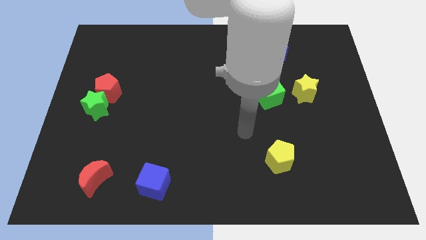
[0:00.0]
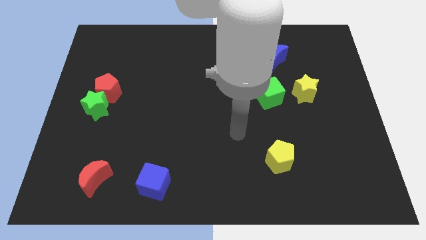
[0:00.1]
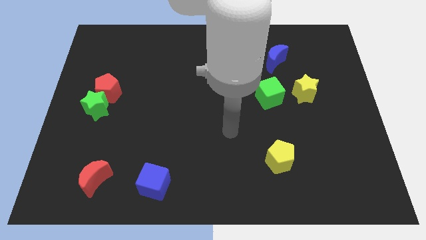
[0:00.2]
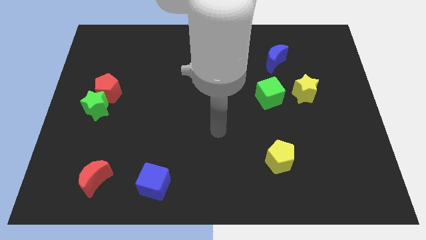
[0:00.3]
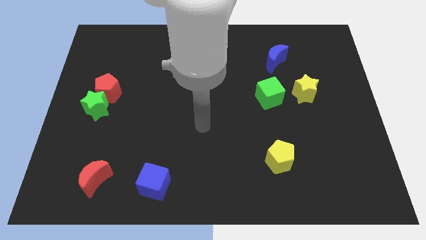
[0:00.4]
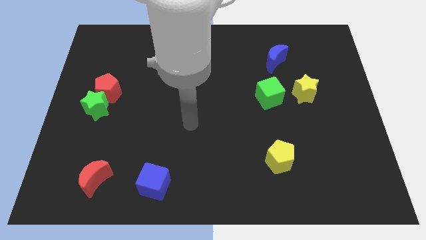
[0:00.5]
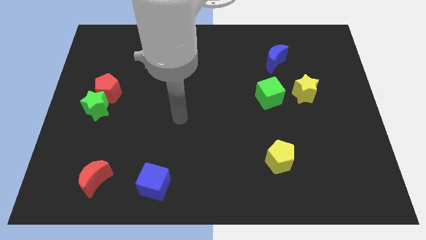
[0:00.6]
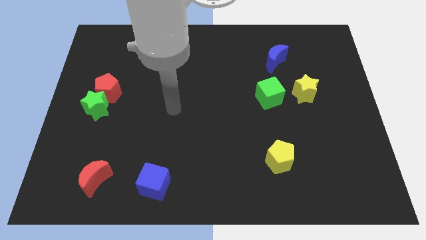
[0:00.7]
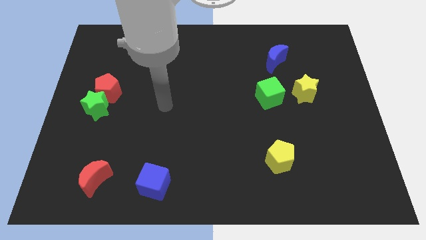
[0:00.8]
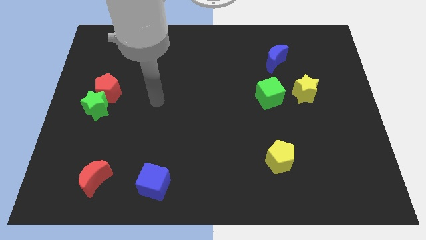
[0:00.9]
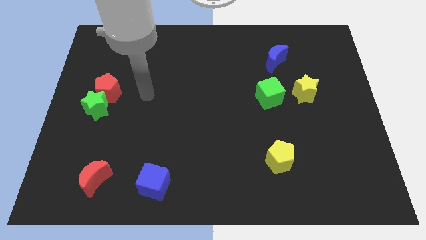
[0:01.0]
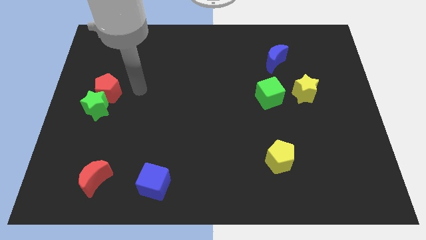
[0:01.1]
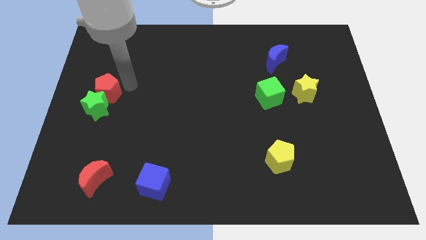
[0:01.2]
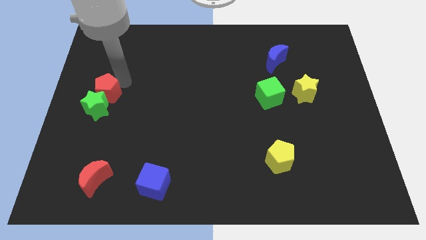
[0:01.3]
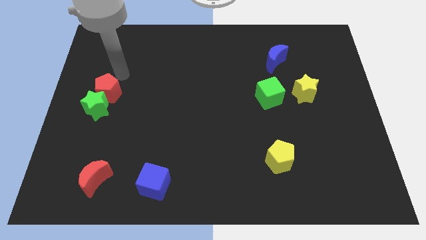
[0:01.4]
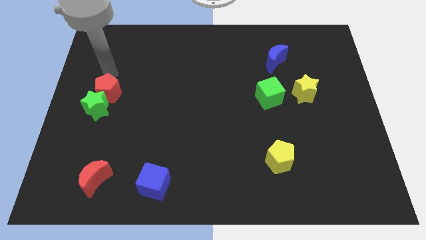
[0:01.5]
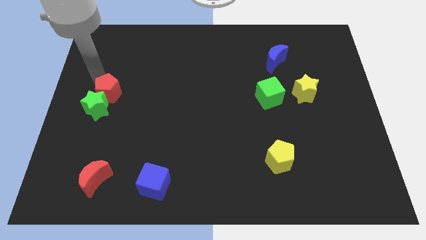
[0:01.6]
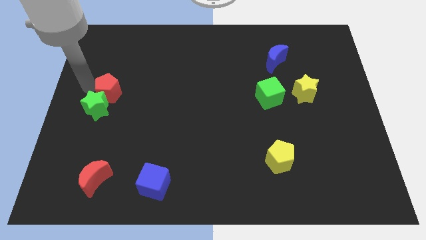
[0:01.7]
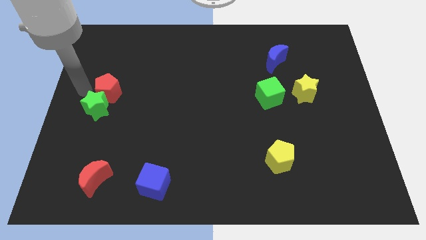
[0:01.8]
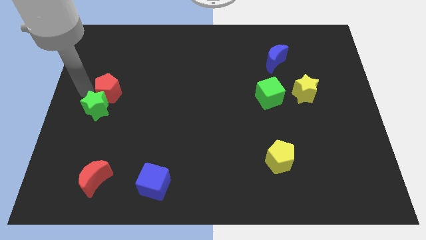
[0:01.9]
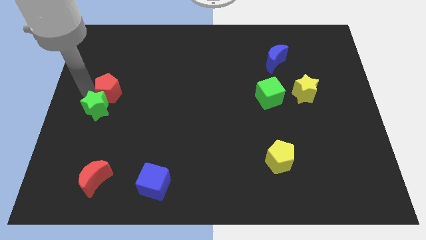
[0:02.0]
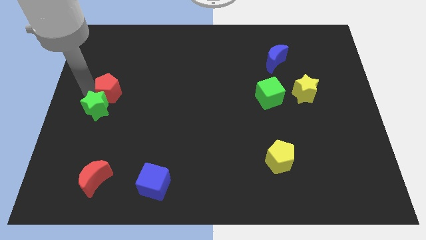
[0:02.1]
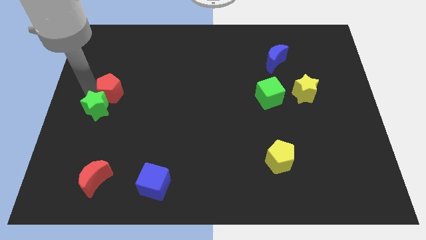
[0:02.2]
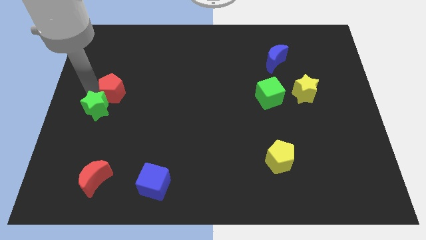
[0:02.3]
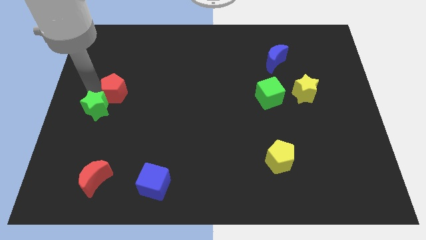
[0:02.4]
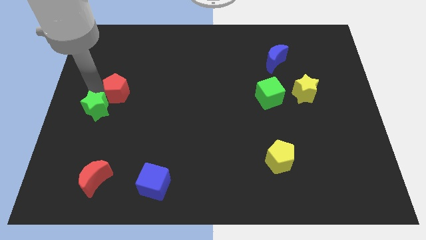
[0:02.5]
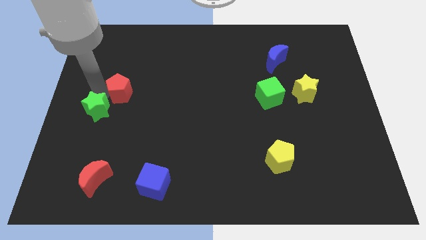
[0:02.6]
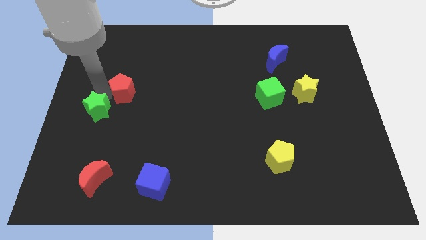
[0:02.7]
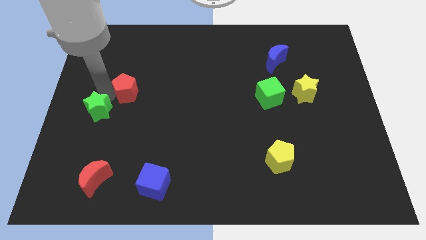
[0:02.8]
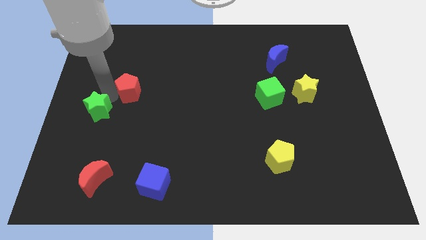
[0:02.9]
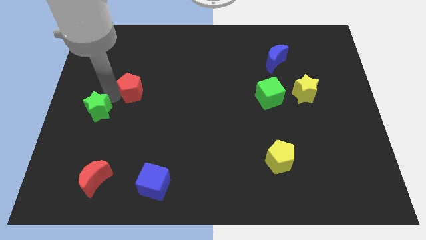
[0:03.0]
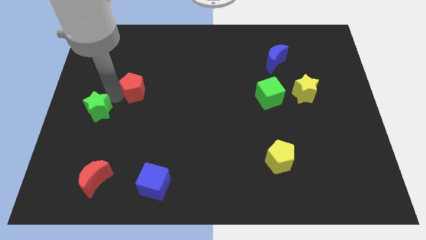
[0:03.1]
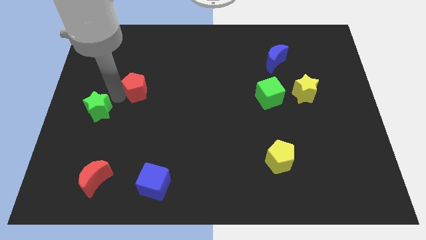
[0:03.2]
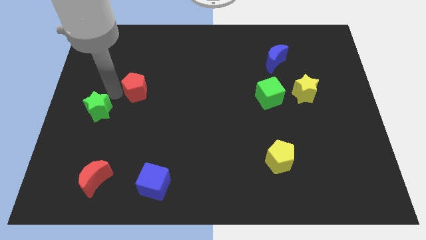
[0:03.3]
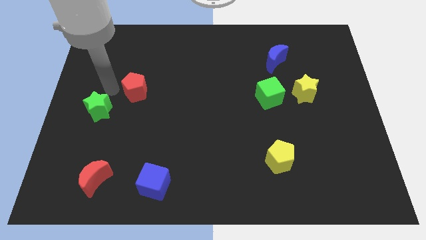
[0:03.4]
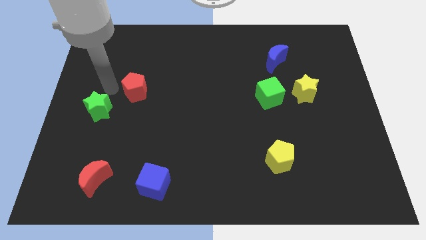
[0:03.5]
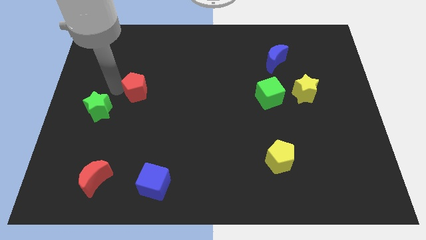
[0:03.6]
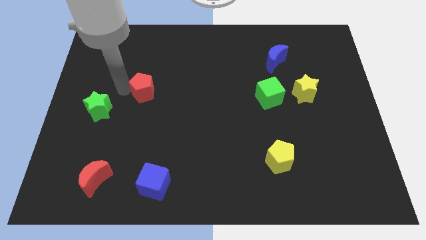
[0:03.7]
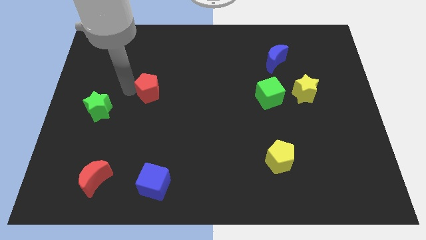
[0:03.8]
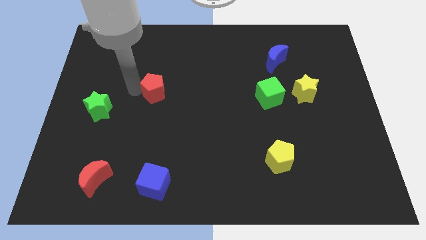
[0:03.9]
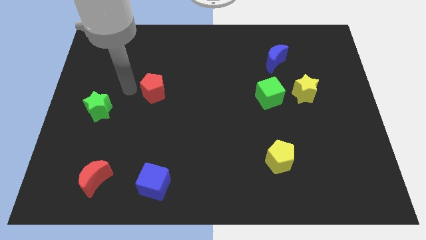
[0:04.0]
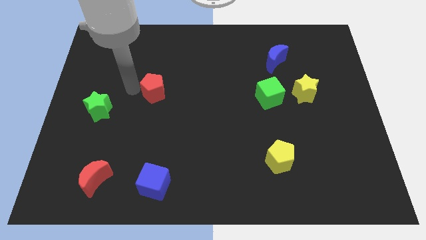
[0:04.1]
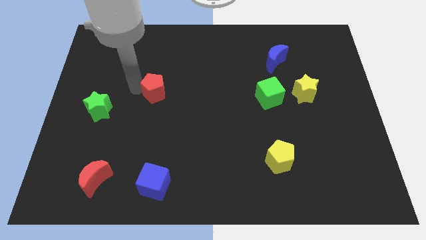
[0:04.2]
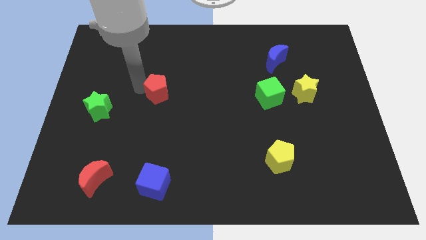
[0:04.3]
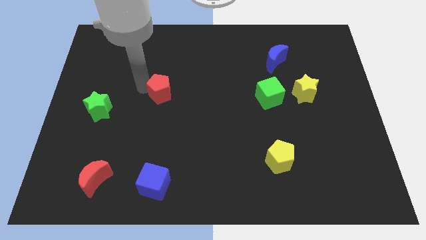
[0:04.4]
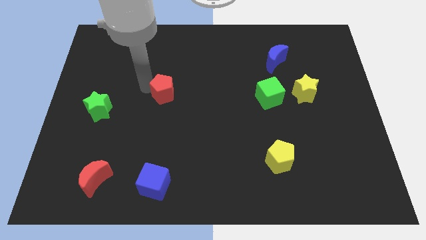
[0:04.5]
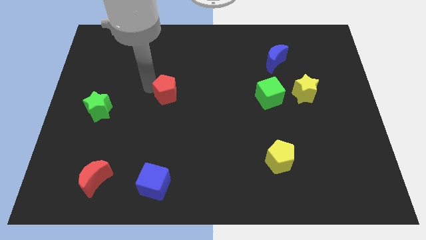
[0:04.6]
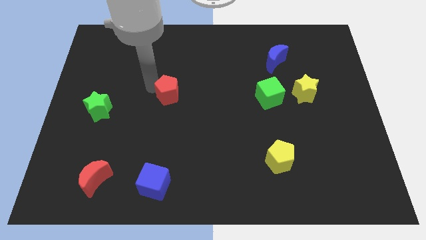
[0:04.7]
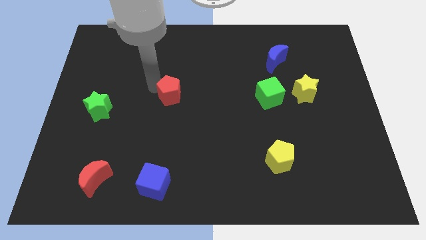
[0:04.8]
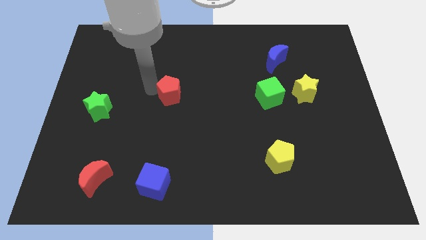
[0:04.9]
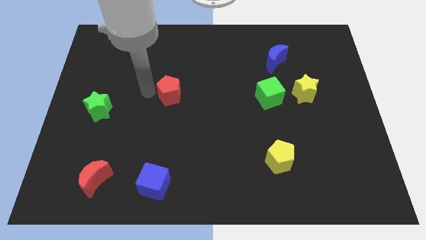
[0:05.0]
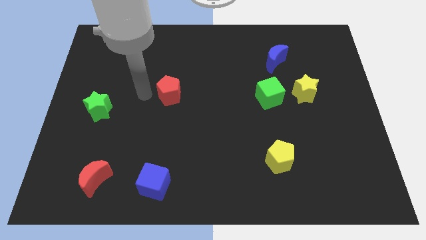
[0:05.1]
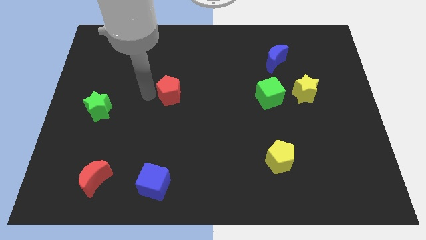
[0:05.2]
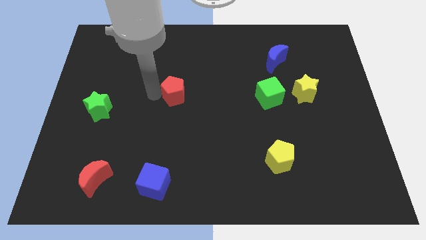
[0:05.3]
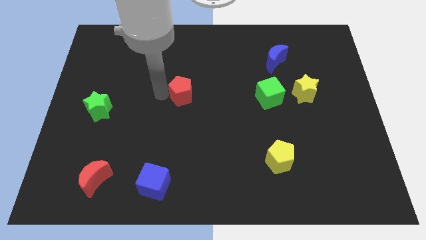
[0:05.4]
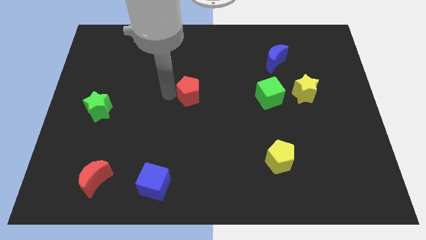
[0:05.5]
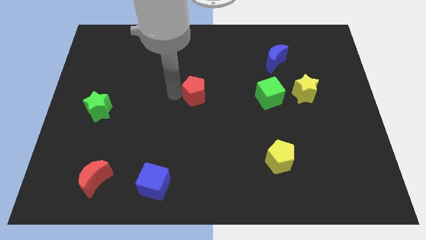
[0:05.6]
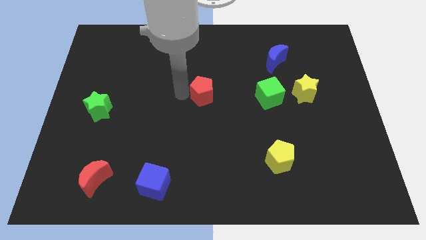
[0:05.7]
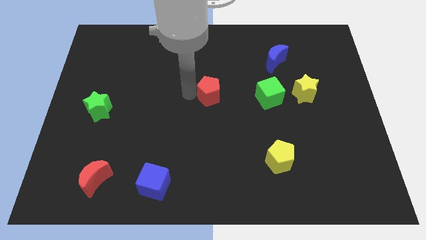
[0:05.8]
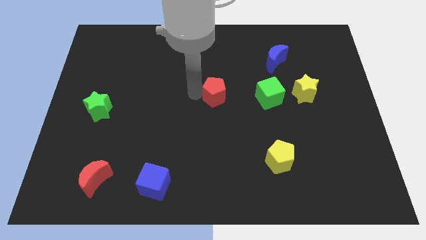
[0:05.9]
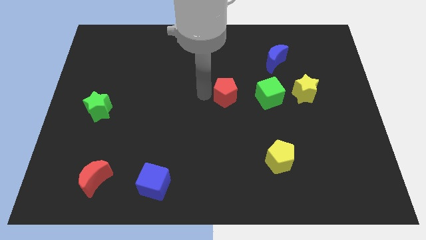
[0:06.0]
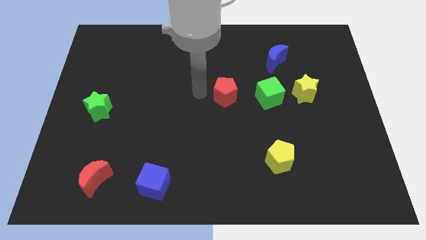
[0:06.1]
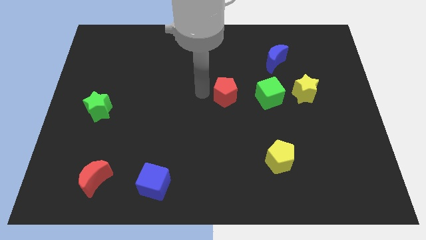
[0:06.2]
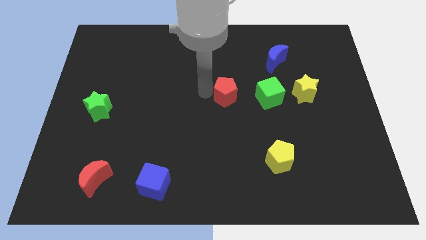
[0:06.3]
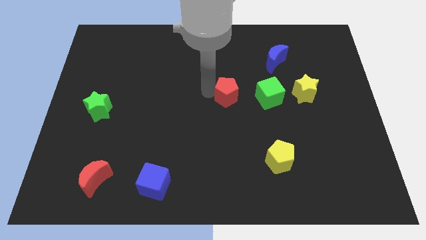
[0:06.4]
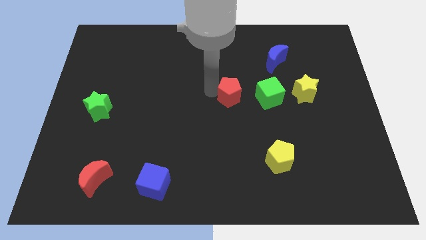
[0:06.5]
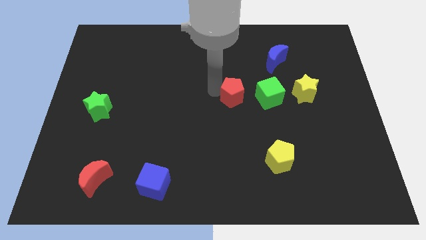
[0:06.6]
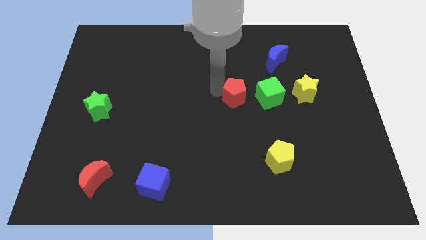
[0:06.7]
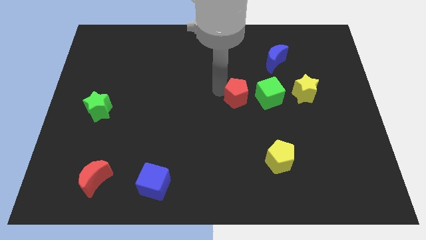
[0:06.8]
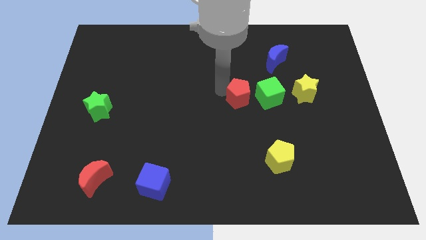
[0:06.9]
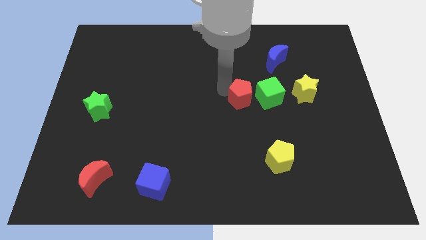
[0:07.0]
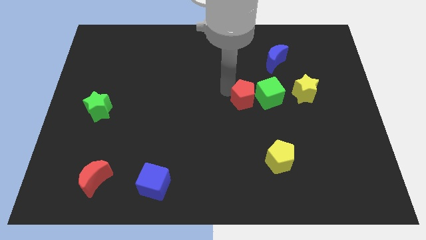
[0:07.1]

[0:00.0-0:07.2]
move the red pentagon towards the green cube
